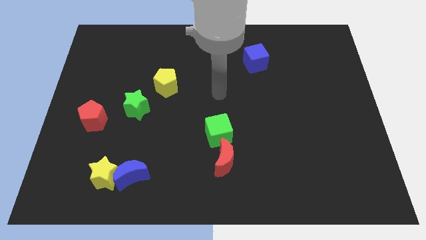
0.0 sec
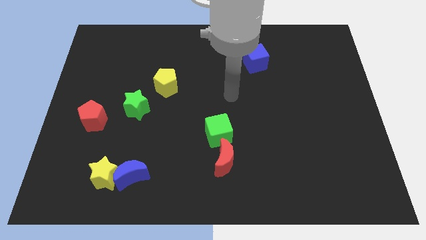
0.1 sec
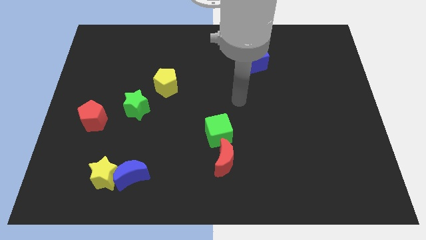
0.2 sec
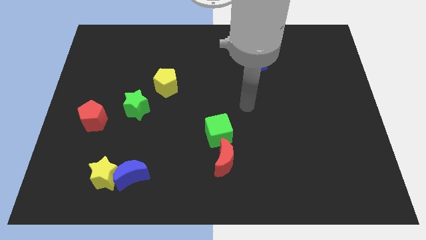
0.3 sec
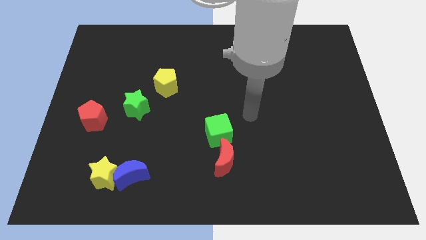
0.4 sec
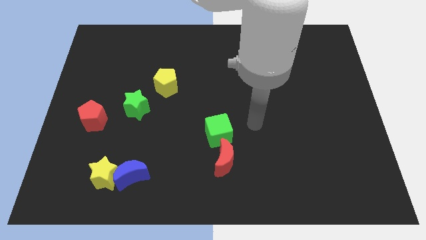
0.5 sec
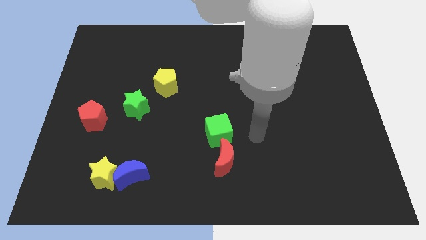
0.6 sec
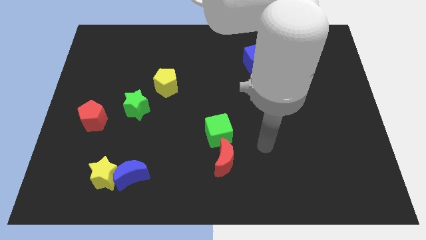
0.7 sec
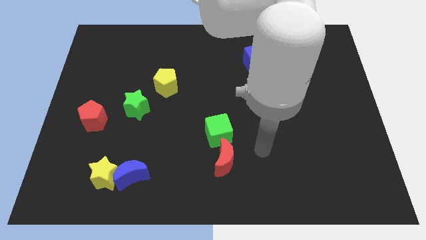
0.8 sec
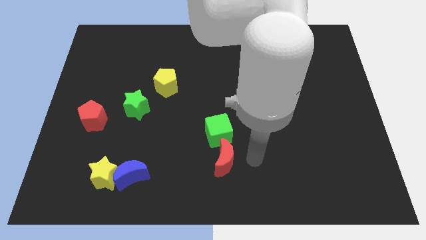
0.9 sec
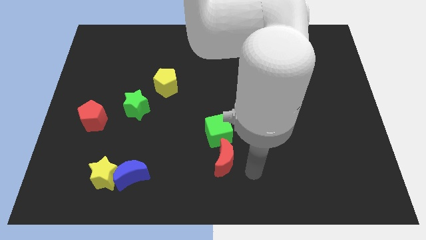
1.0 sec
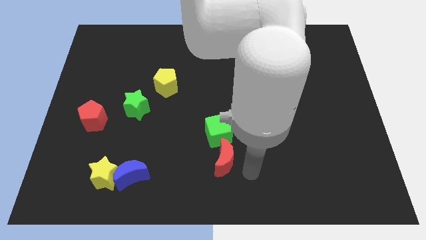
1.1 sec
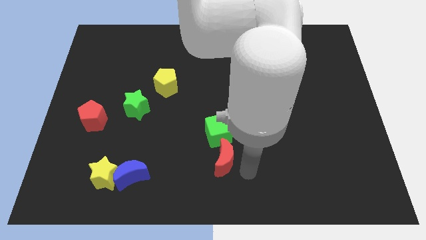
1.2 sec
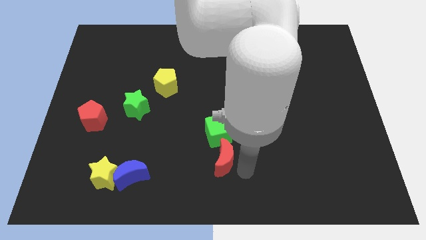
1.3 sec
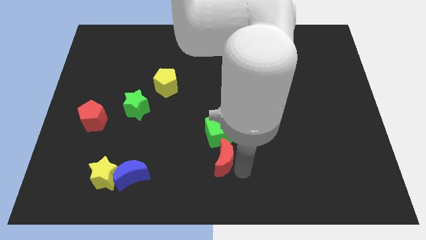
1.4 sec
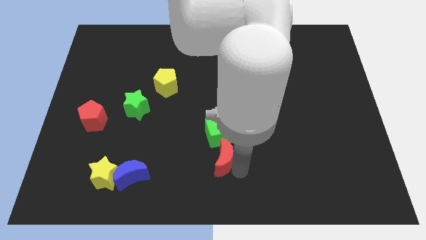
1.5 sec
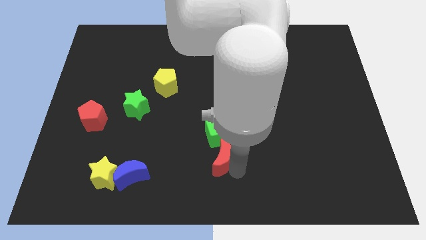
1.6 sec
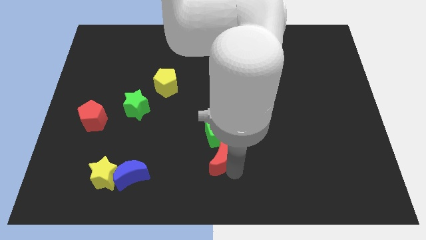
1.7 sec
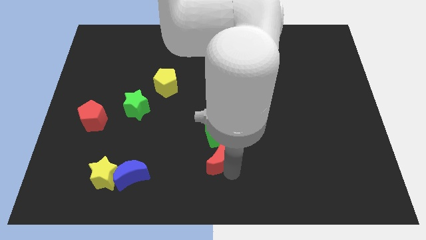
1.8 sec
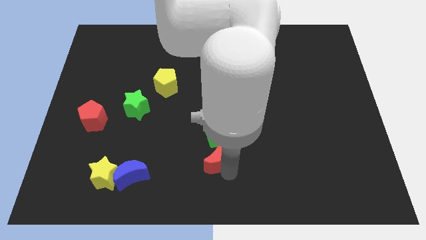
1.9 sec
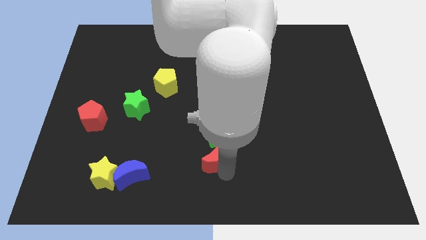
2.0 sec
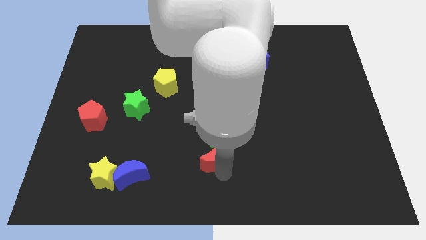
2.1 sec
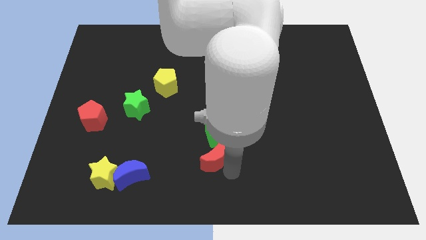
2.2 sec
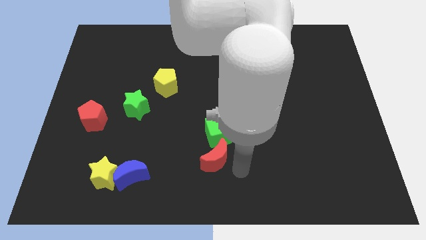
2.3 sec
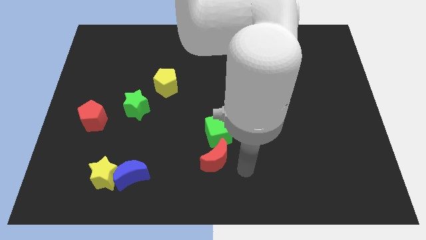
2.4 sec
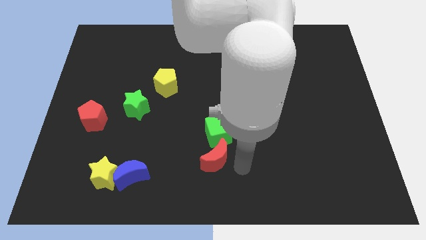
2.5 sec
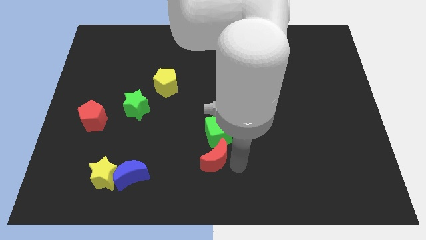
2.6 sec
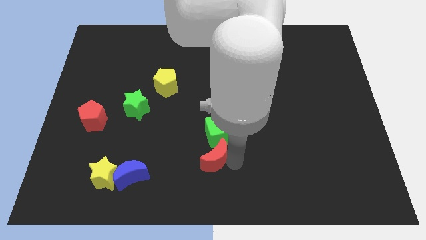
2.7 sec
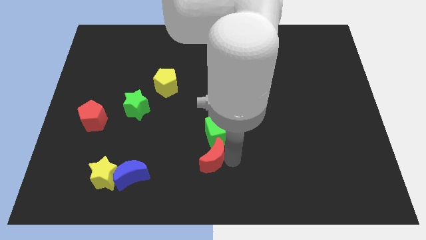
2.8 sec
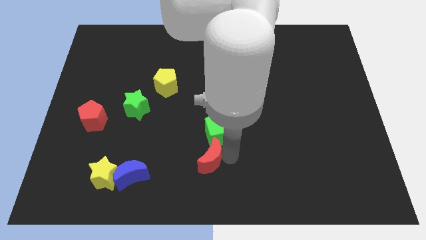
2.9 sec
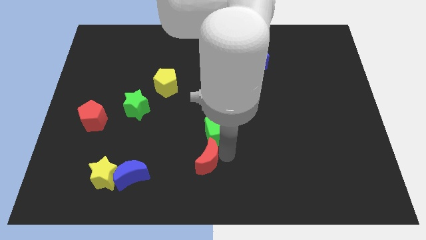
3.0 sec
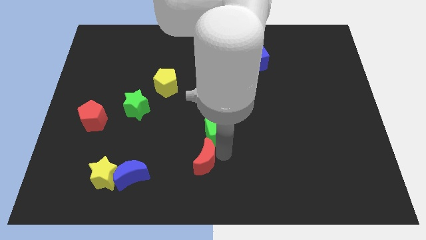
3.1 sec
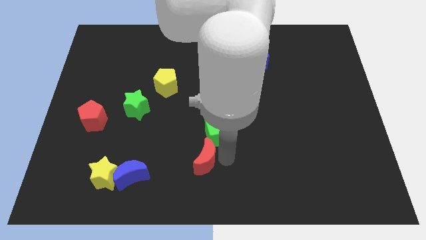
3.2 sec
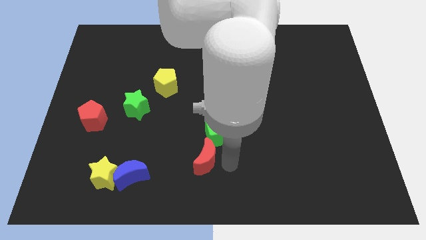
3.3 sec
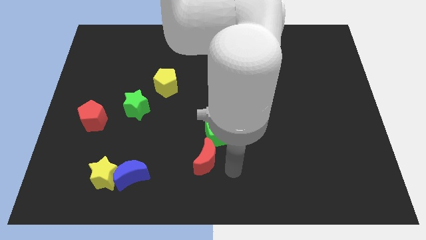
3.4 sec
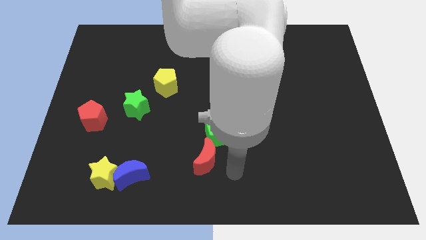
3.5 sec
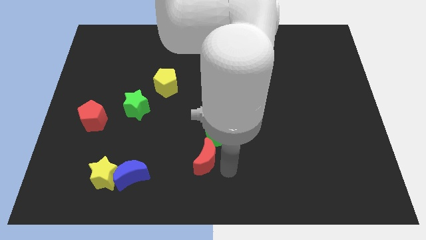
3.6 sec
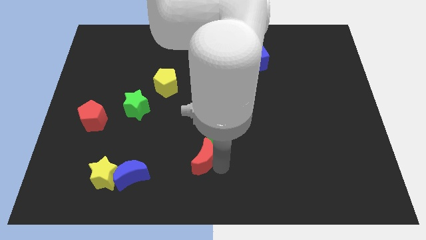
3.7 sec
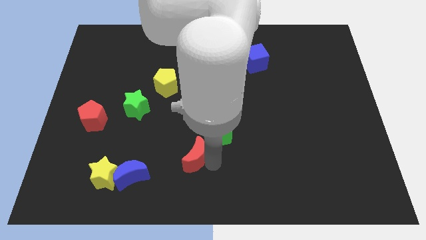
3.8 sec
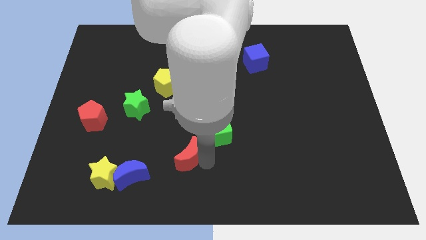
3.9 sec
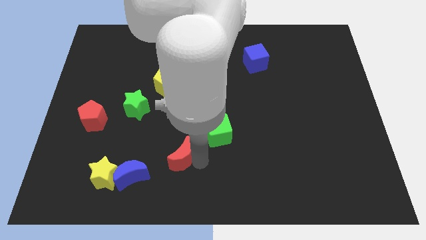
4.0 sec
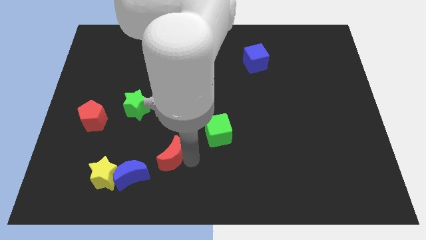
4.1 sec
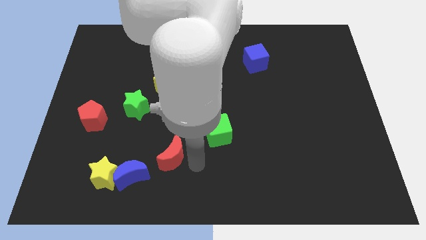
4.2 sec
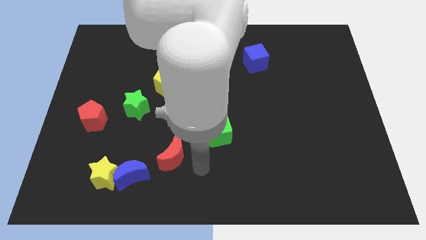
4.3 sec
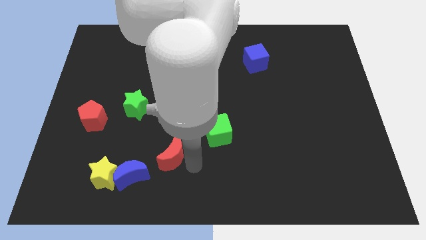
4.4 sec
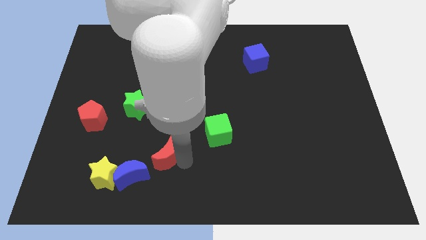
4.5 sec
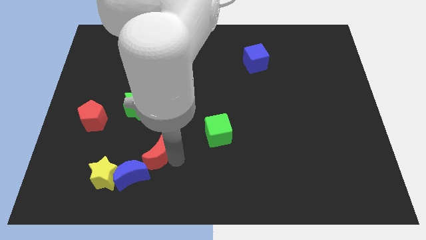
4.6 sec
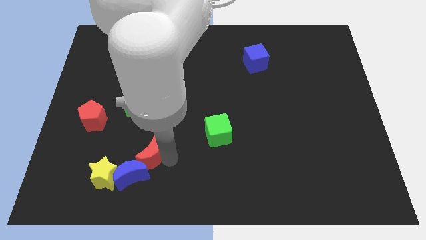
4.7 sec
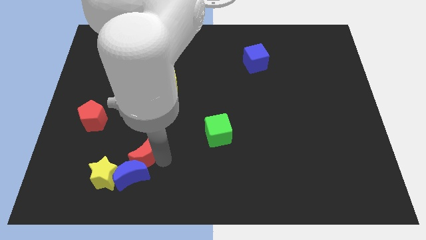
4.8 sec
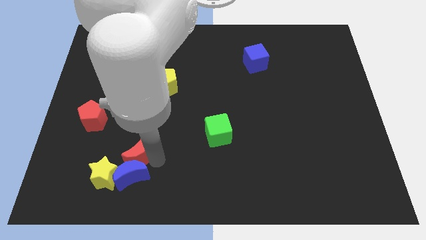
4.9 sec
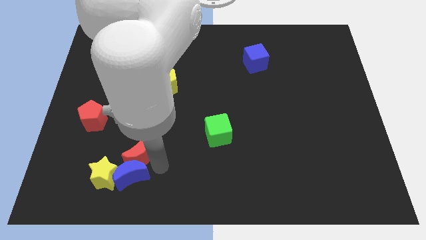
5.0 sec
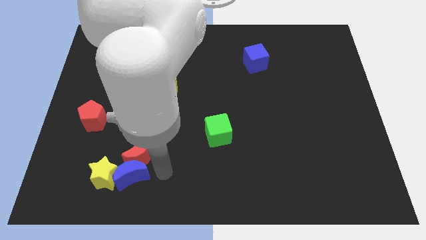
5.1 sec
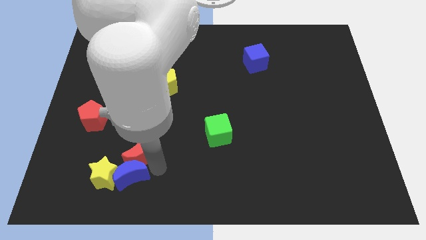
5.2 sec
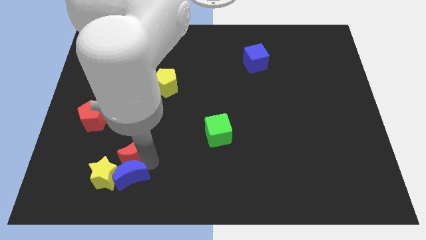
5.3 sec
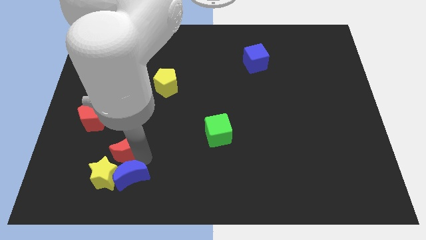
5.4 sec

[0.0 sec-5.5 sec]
push the red moon to the top of the yellow star

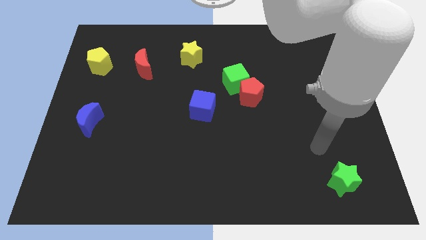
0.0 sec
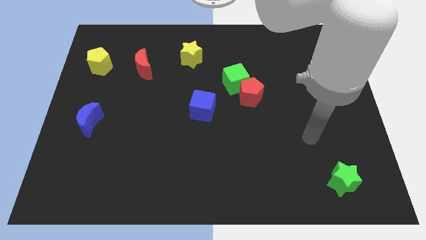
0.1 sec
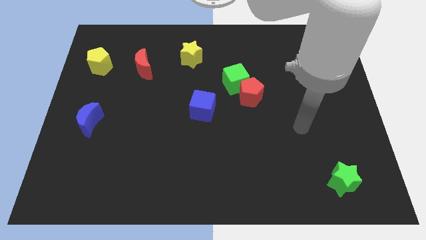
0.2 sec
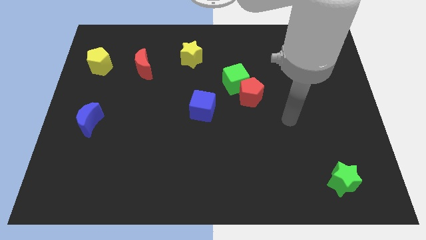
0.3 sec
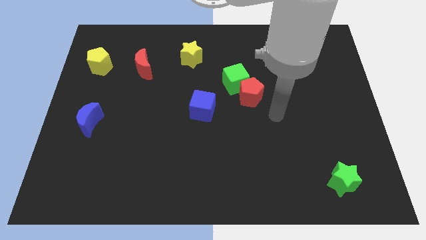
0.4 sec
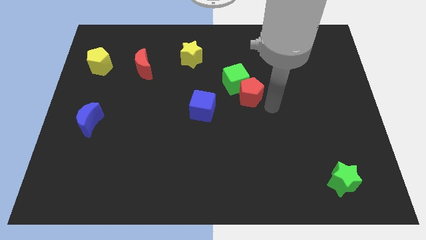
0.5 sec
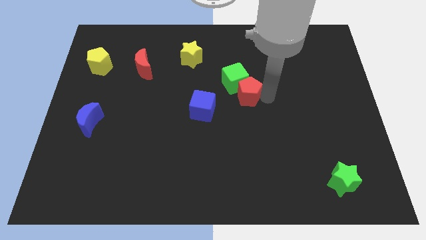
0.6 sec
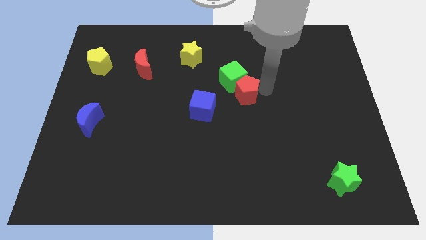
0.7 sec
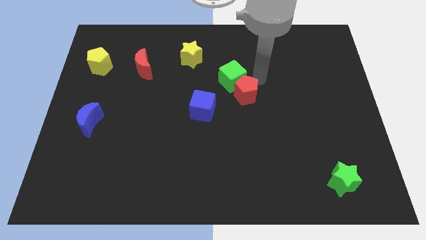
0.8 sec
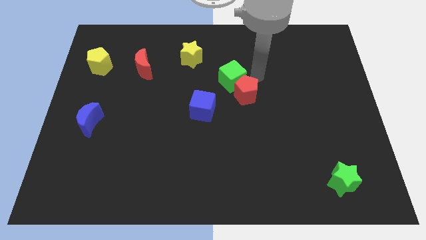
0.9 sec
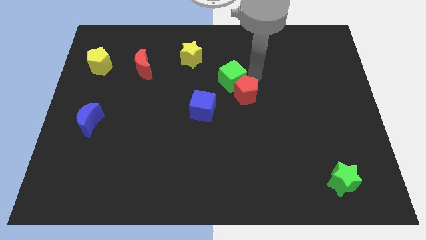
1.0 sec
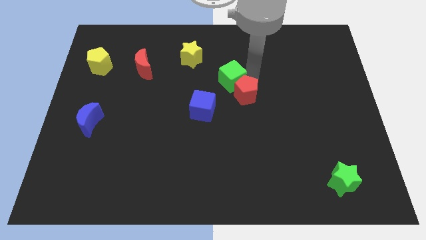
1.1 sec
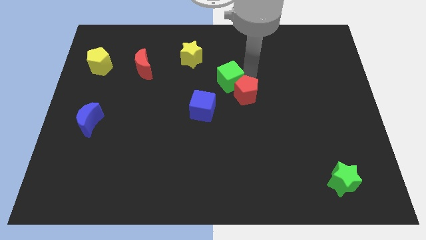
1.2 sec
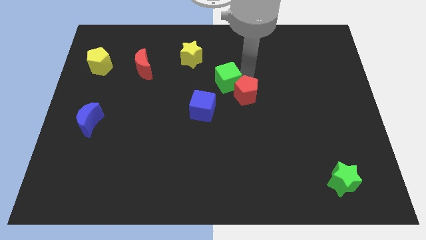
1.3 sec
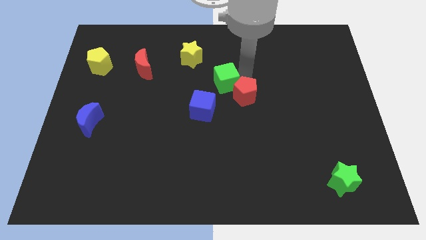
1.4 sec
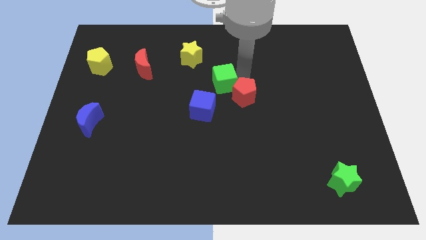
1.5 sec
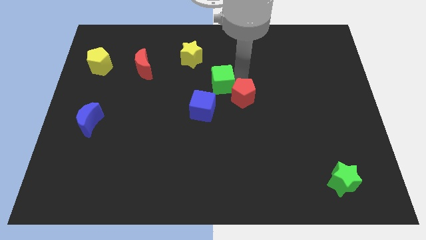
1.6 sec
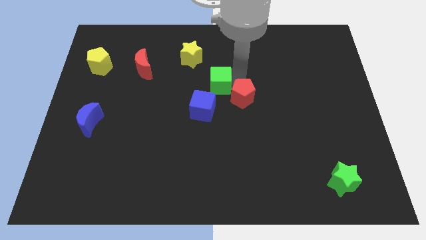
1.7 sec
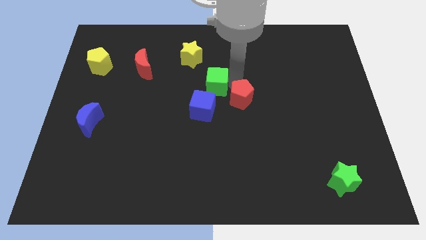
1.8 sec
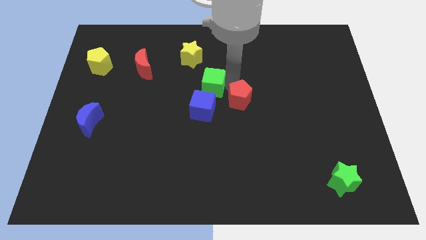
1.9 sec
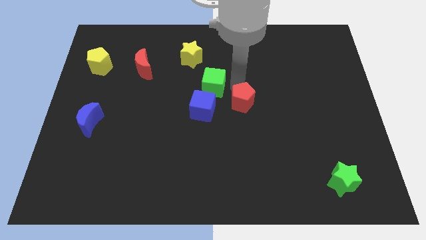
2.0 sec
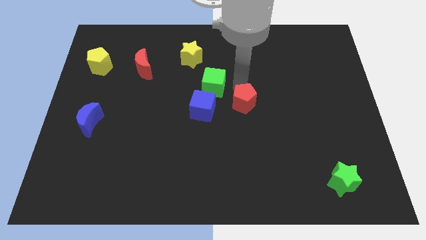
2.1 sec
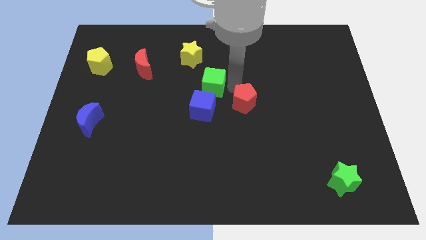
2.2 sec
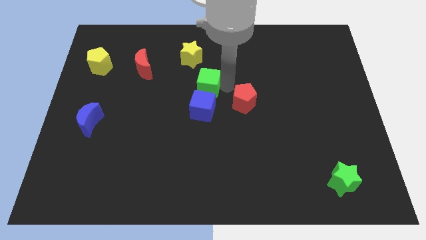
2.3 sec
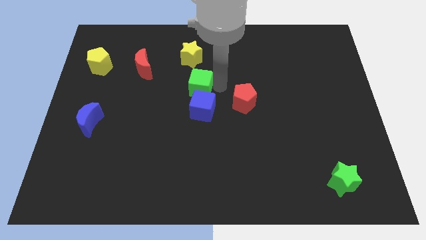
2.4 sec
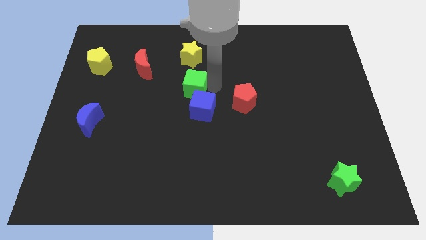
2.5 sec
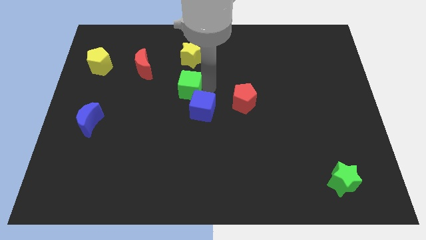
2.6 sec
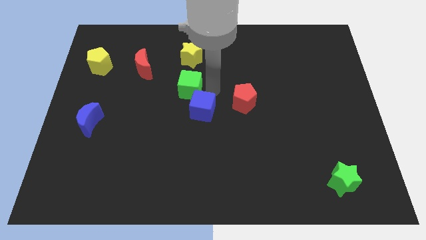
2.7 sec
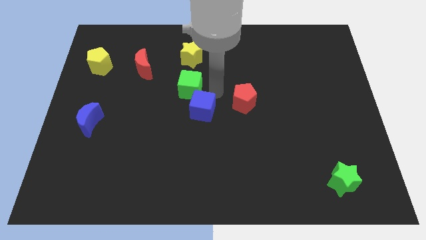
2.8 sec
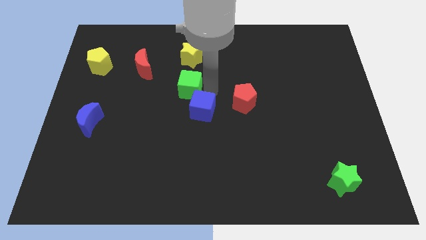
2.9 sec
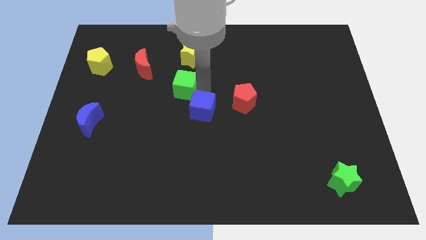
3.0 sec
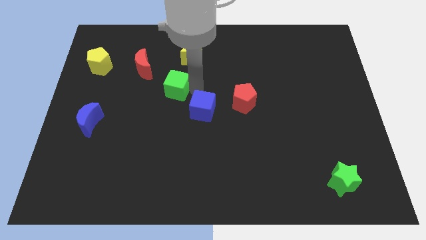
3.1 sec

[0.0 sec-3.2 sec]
move the green cube diagonally down and to the right of the red moon
